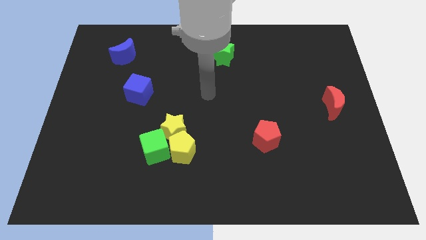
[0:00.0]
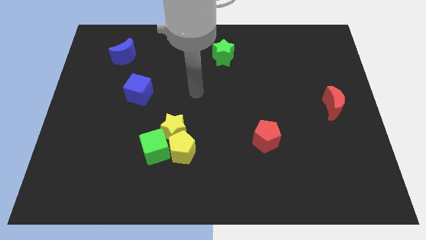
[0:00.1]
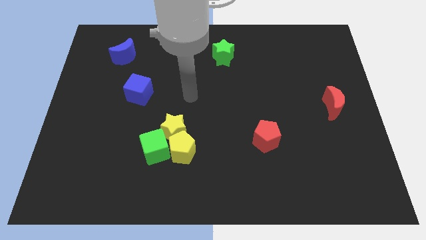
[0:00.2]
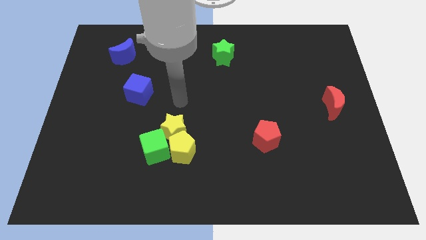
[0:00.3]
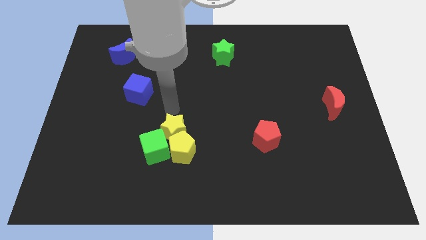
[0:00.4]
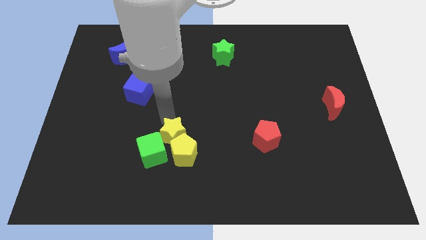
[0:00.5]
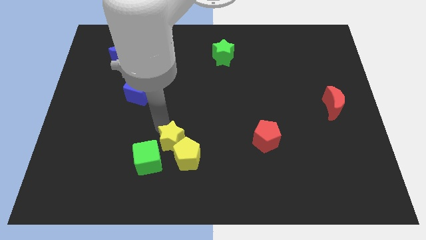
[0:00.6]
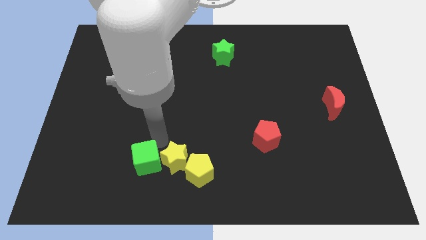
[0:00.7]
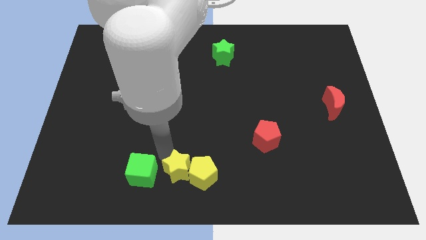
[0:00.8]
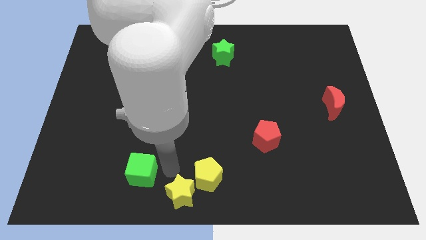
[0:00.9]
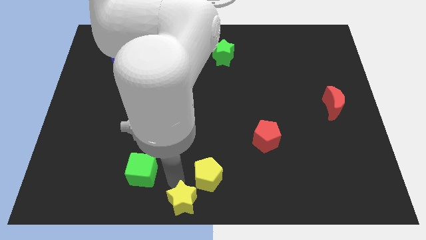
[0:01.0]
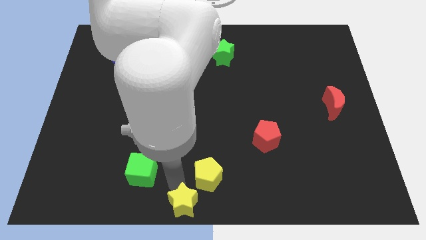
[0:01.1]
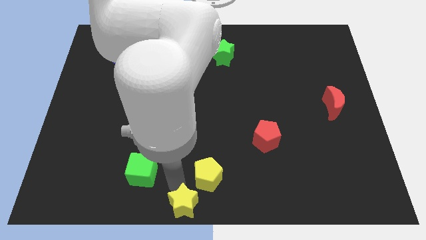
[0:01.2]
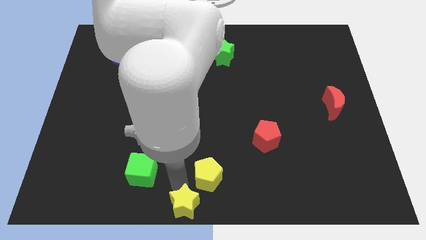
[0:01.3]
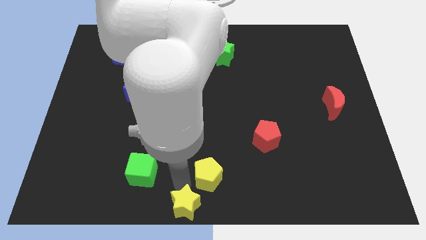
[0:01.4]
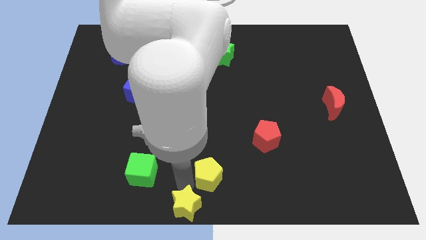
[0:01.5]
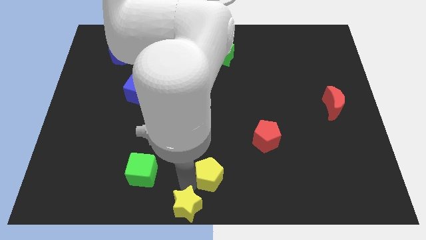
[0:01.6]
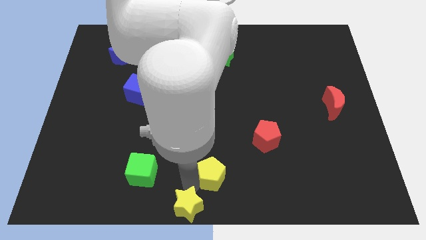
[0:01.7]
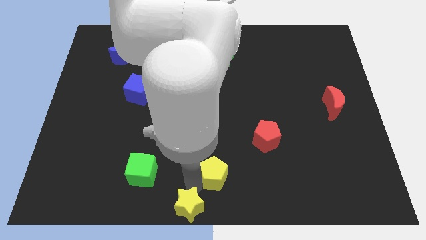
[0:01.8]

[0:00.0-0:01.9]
separate the yellow pentagon from the yellow star and green cube

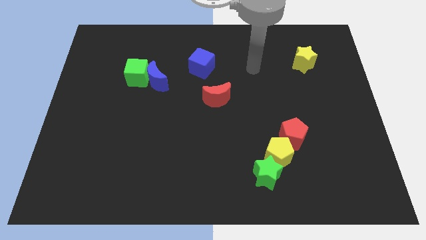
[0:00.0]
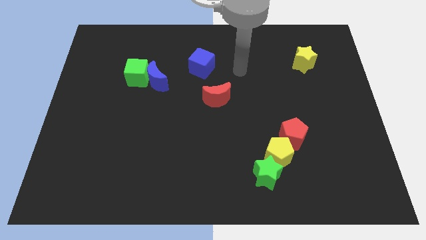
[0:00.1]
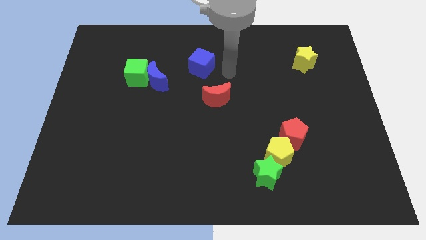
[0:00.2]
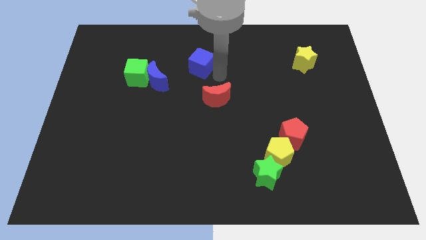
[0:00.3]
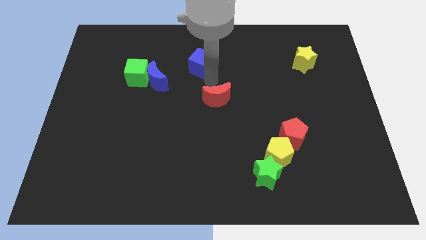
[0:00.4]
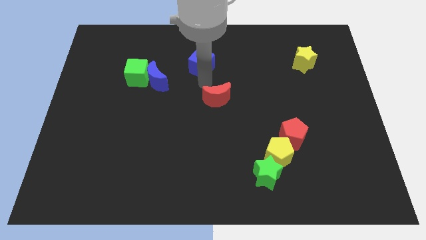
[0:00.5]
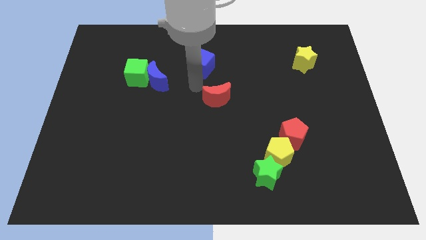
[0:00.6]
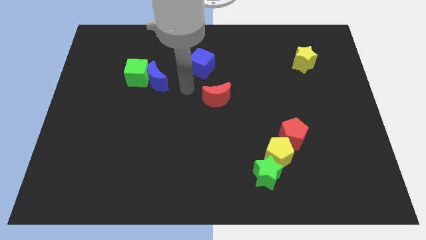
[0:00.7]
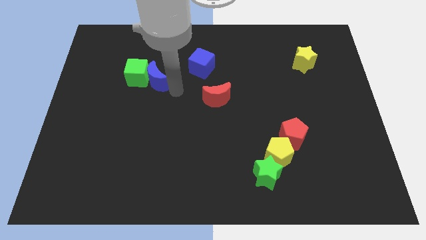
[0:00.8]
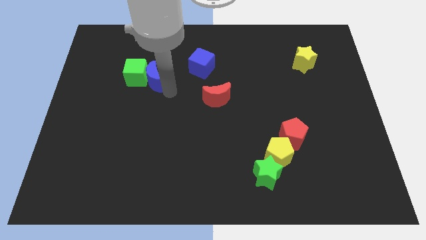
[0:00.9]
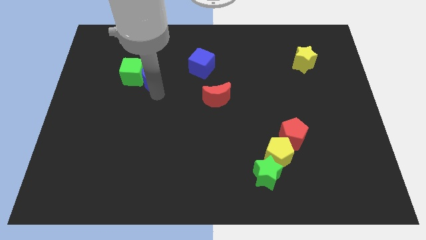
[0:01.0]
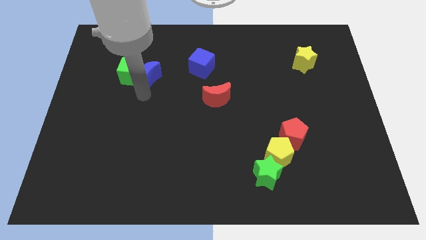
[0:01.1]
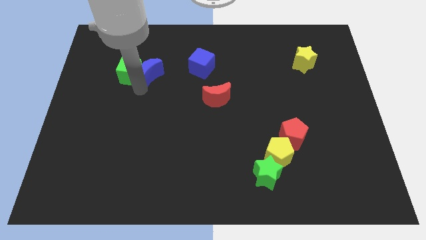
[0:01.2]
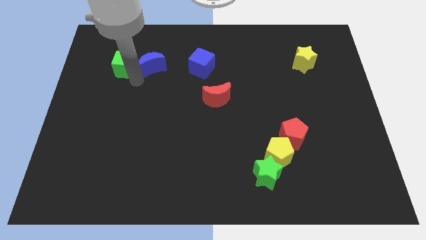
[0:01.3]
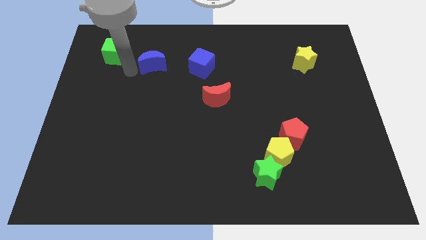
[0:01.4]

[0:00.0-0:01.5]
pull the blue moon apart from the green cube

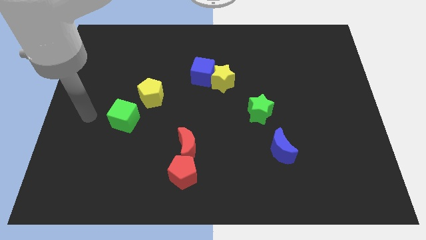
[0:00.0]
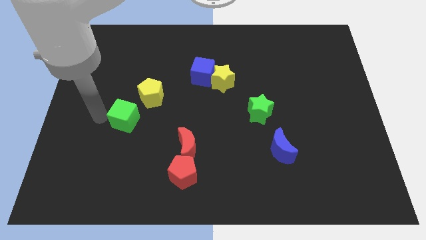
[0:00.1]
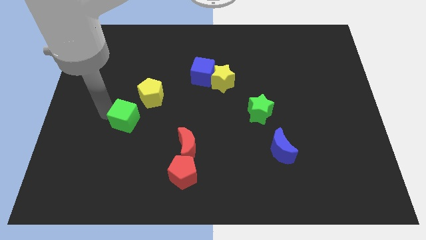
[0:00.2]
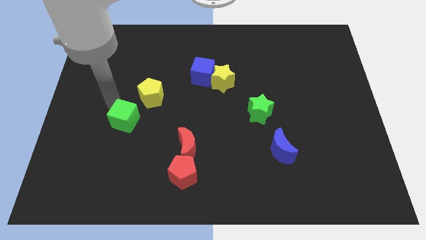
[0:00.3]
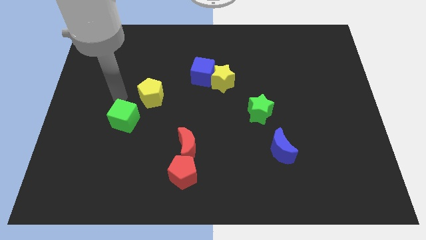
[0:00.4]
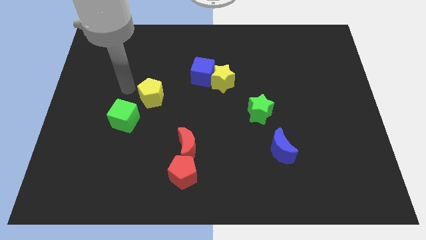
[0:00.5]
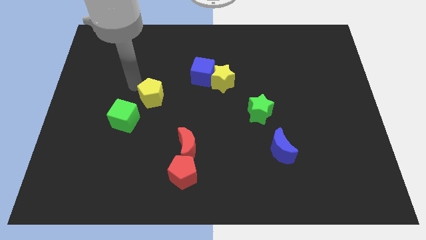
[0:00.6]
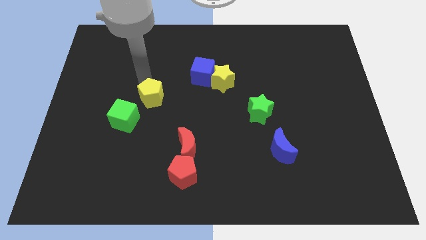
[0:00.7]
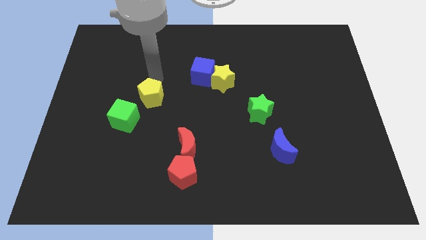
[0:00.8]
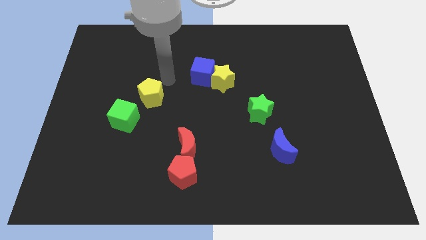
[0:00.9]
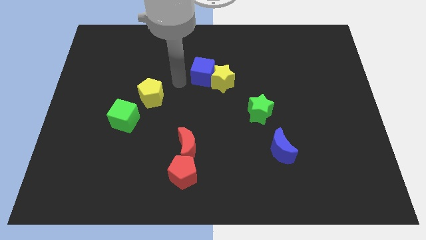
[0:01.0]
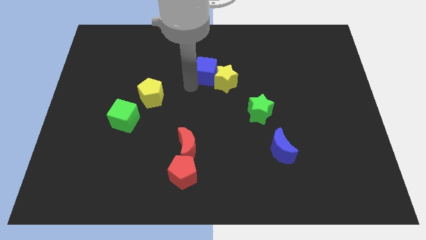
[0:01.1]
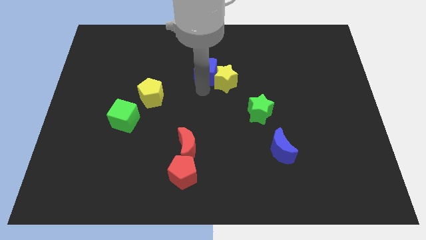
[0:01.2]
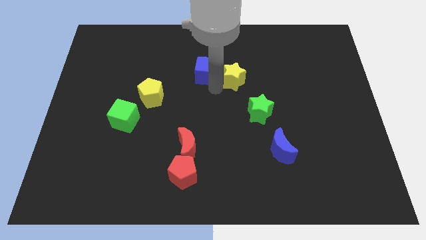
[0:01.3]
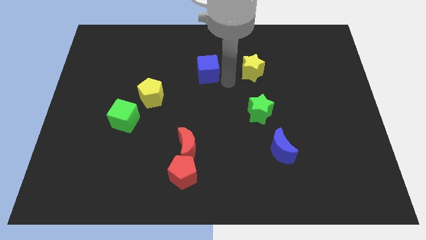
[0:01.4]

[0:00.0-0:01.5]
move the blue cube away from the yellow star

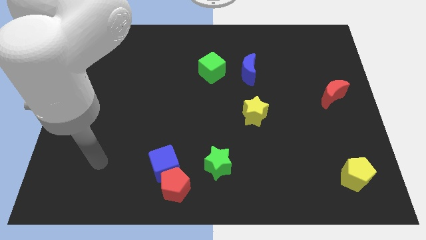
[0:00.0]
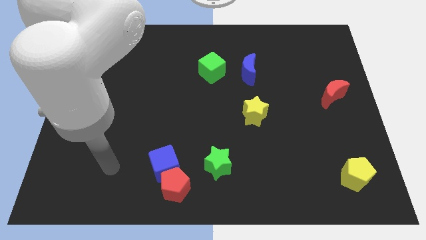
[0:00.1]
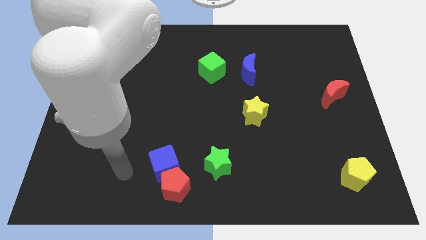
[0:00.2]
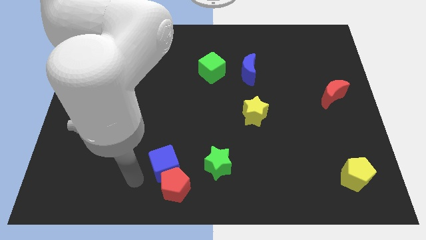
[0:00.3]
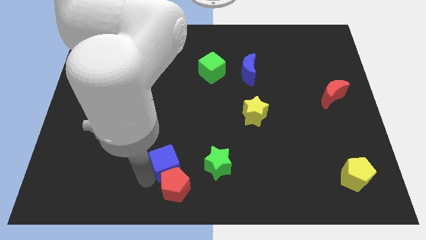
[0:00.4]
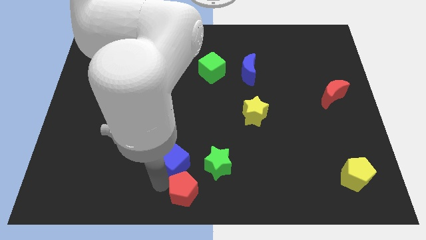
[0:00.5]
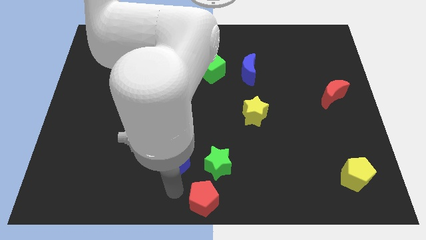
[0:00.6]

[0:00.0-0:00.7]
move the blue cube away from the red pentagon

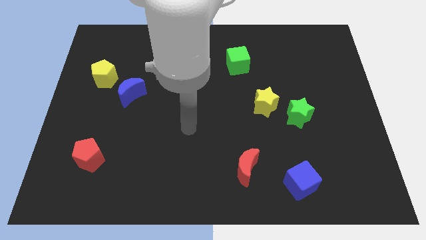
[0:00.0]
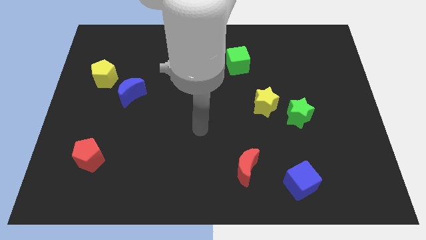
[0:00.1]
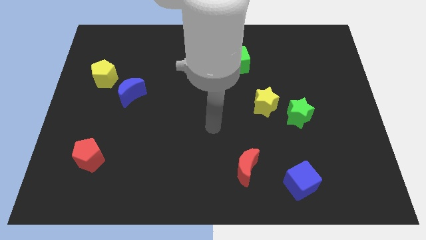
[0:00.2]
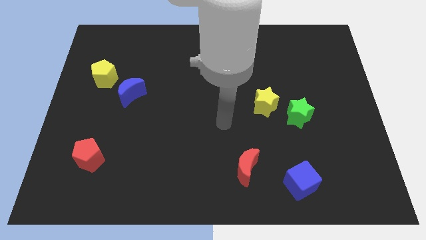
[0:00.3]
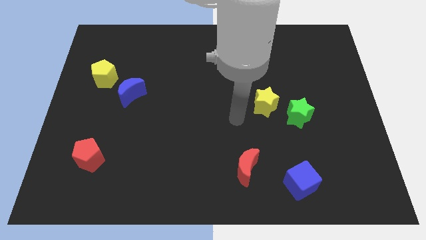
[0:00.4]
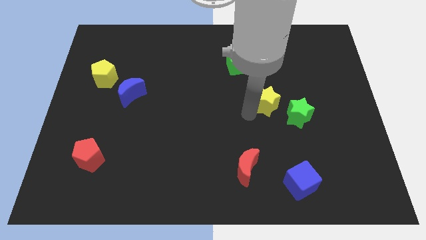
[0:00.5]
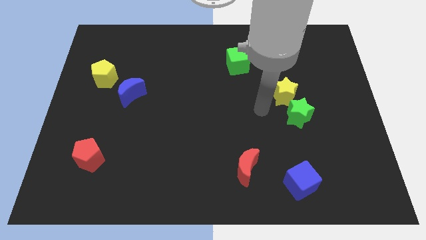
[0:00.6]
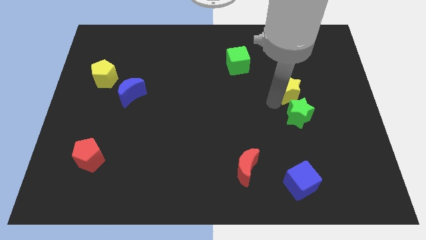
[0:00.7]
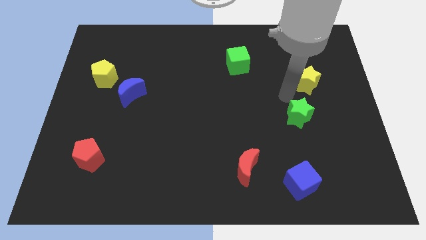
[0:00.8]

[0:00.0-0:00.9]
pull the green star apart from the yellow star

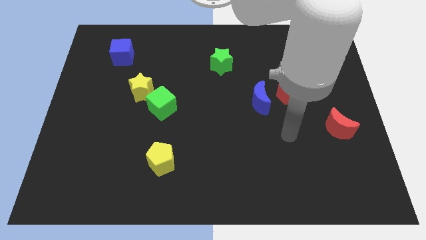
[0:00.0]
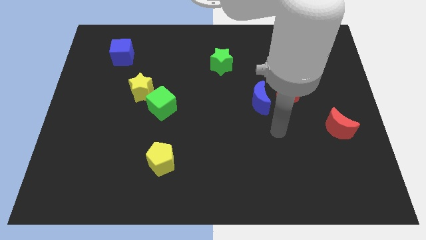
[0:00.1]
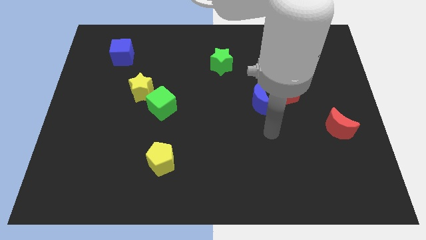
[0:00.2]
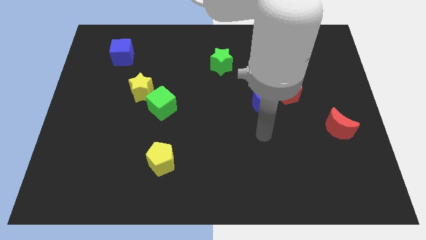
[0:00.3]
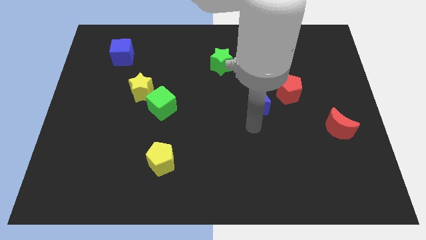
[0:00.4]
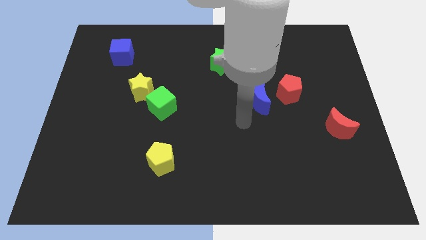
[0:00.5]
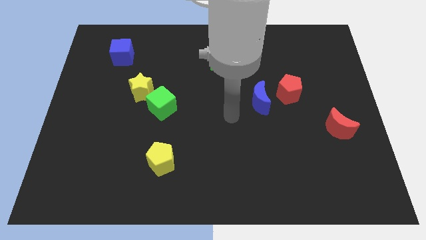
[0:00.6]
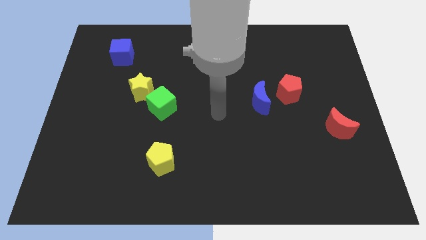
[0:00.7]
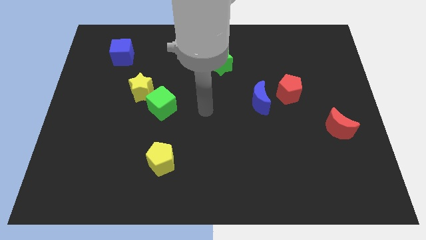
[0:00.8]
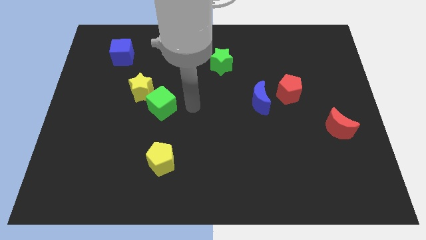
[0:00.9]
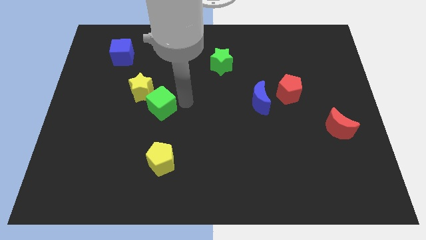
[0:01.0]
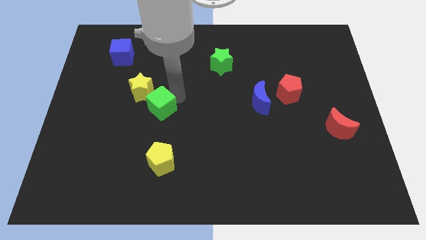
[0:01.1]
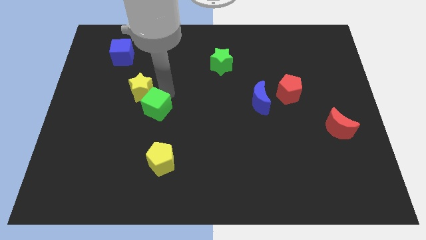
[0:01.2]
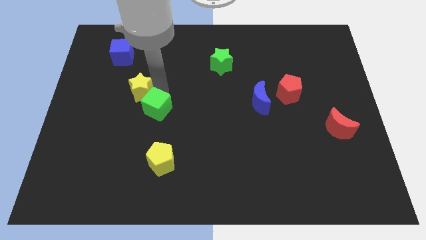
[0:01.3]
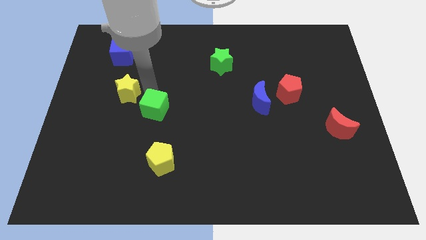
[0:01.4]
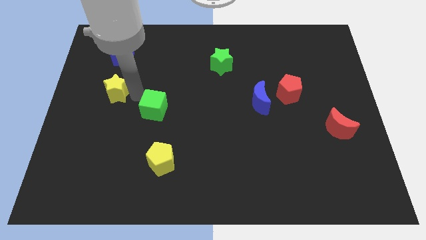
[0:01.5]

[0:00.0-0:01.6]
pull the green cube apart from the yellow star

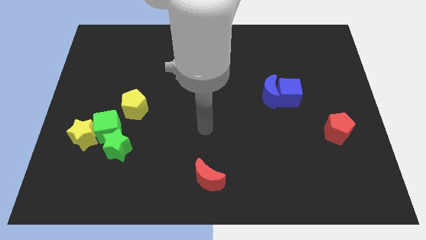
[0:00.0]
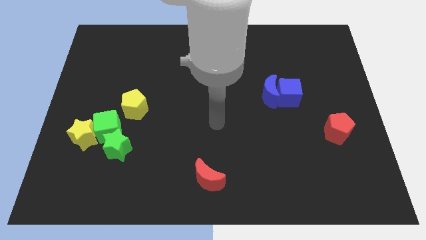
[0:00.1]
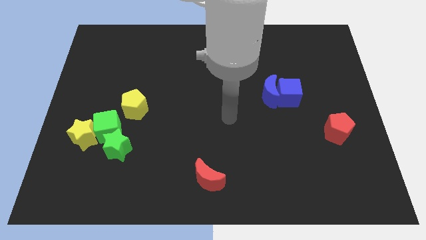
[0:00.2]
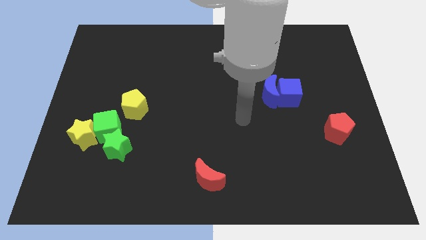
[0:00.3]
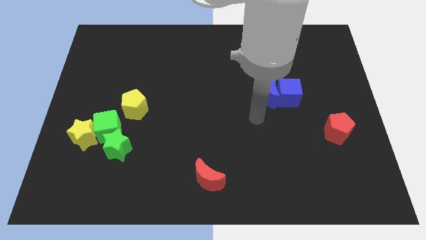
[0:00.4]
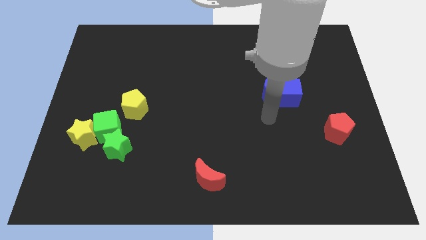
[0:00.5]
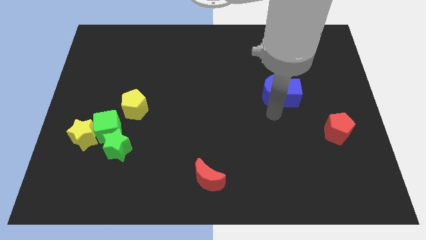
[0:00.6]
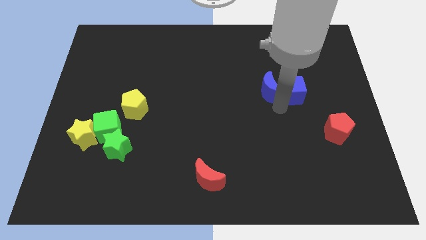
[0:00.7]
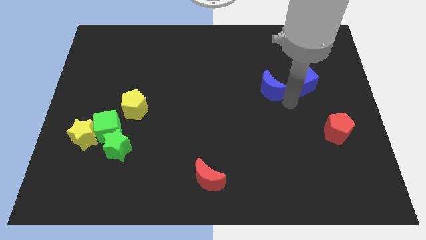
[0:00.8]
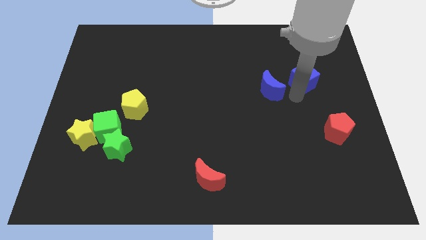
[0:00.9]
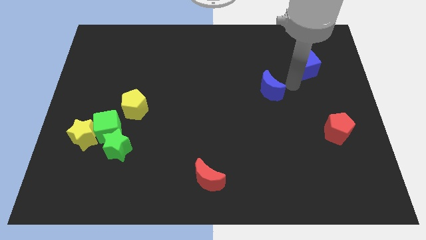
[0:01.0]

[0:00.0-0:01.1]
pull the blue moon apart from the blue cube
